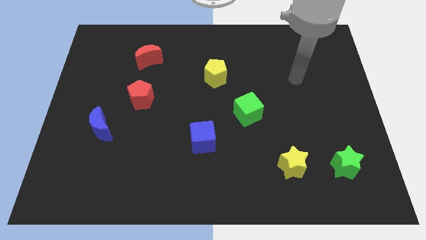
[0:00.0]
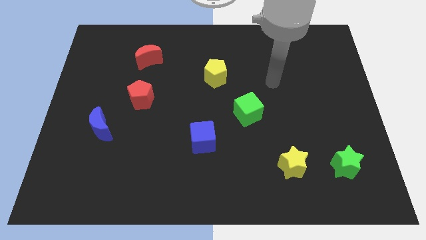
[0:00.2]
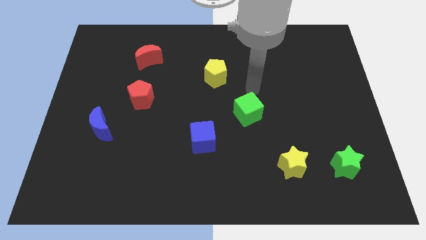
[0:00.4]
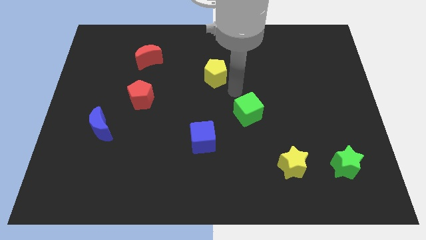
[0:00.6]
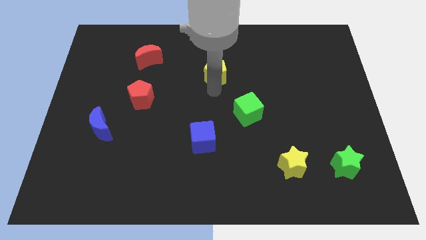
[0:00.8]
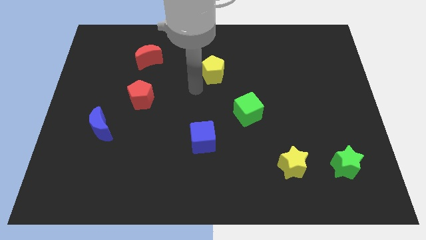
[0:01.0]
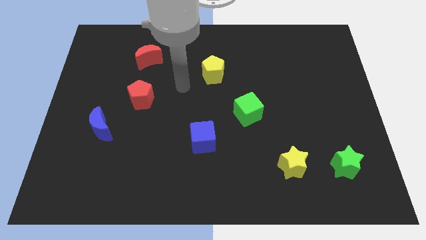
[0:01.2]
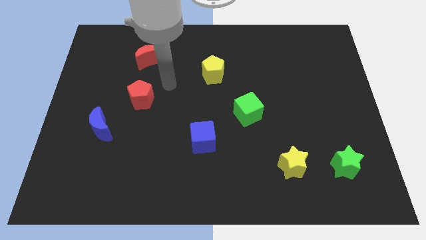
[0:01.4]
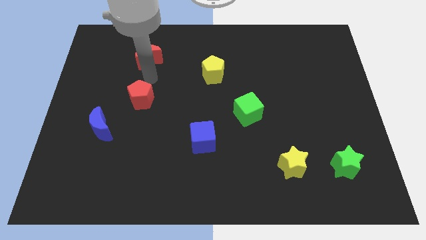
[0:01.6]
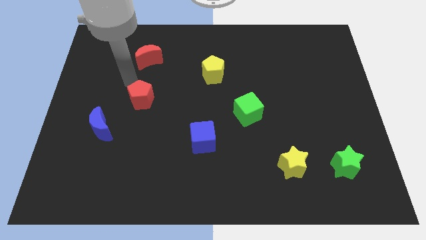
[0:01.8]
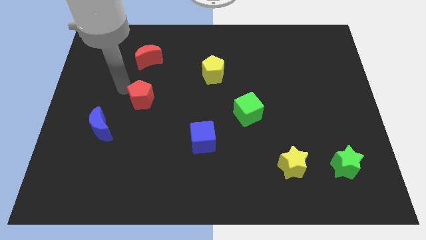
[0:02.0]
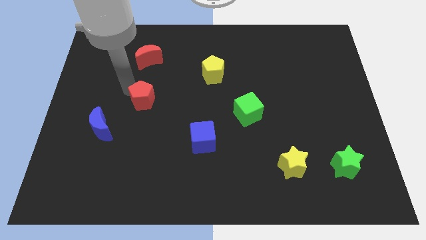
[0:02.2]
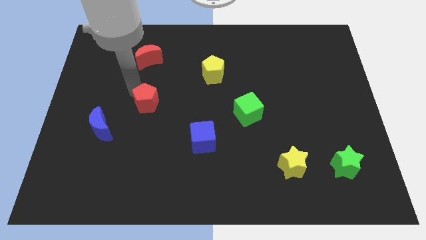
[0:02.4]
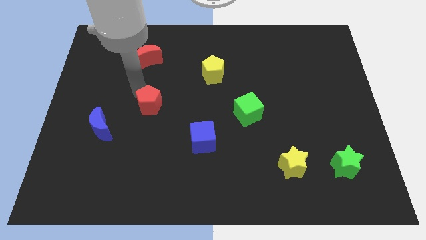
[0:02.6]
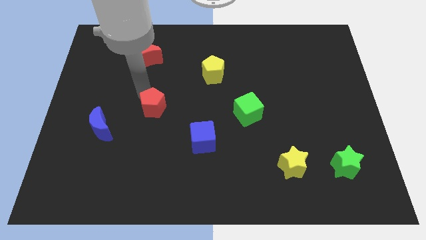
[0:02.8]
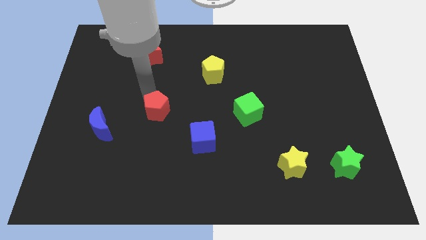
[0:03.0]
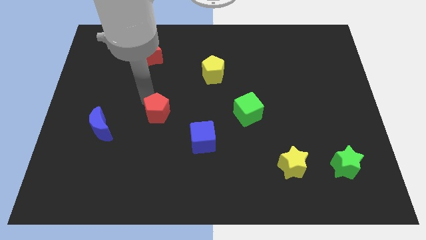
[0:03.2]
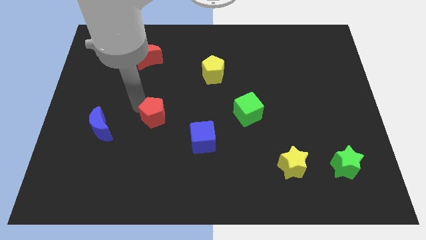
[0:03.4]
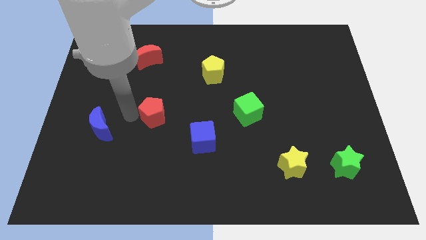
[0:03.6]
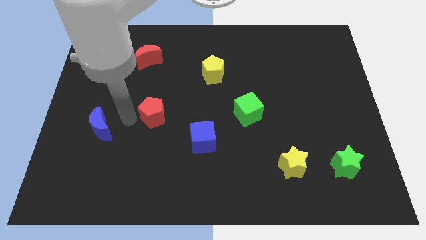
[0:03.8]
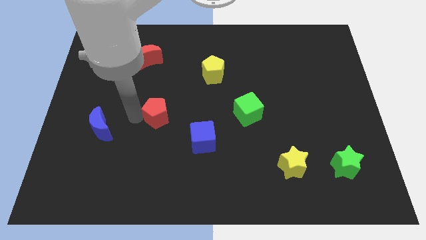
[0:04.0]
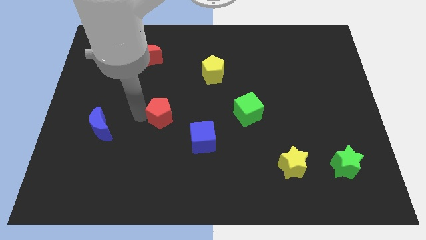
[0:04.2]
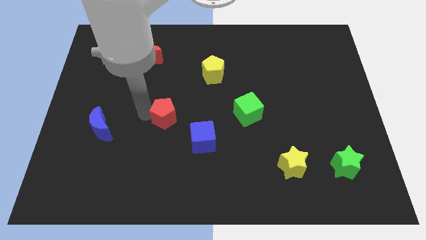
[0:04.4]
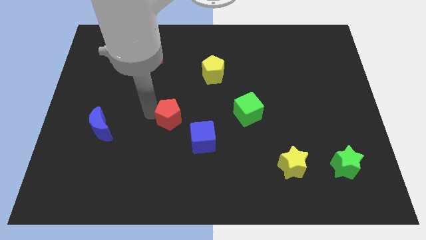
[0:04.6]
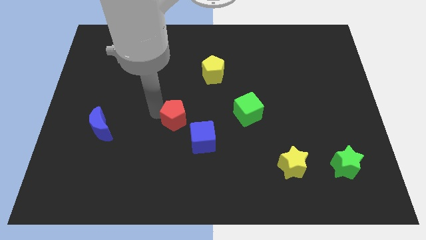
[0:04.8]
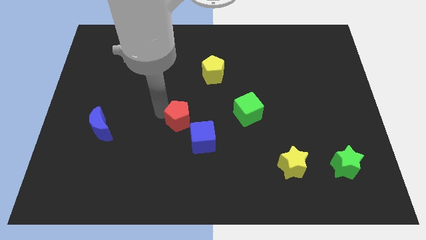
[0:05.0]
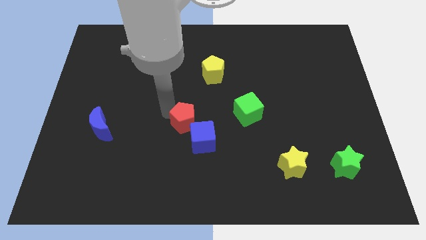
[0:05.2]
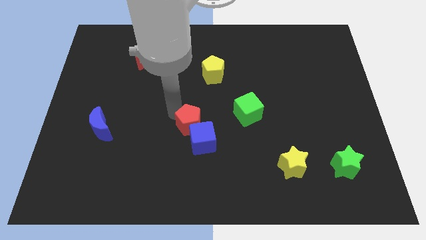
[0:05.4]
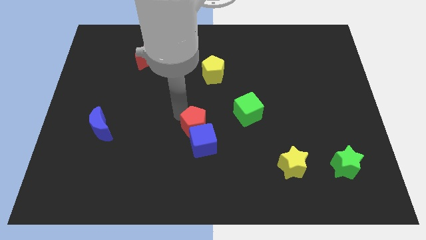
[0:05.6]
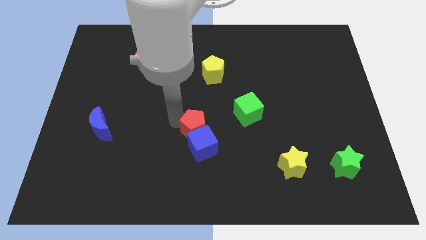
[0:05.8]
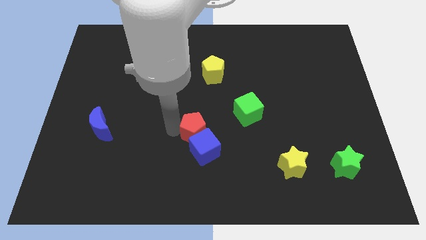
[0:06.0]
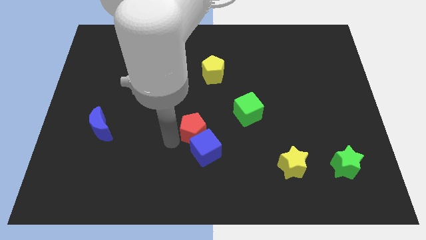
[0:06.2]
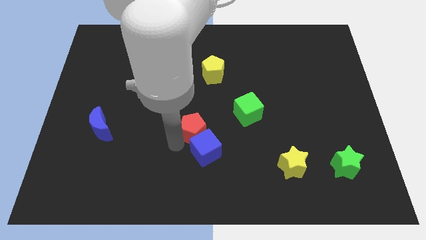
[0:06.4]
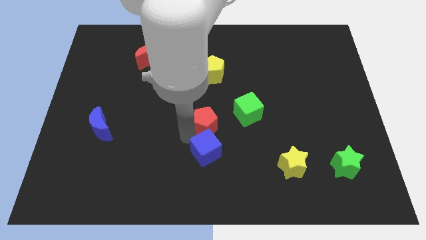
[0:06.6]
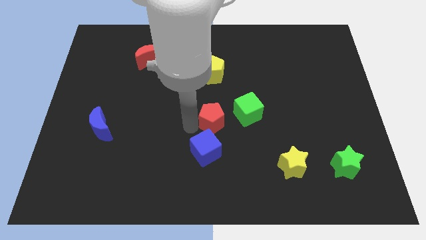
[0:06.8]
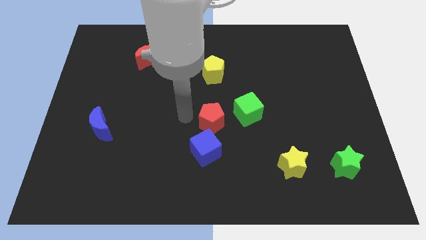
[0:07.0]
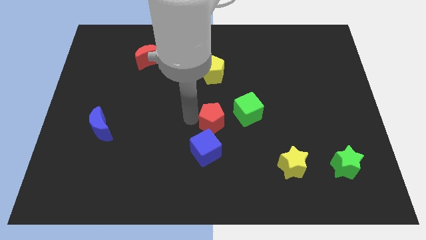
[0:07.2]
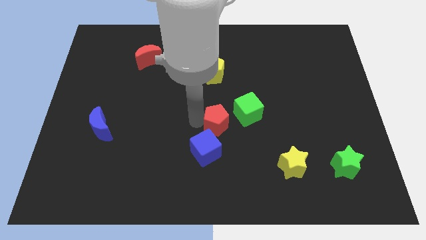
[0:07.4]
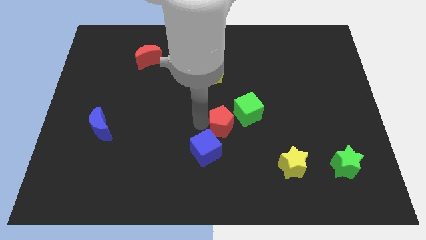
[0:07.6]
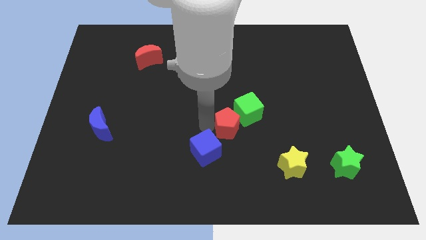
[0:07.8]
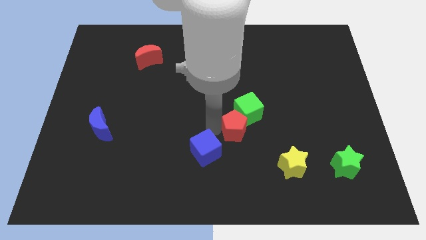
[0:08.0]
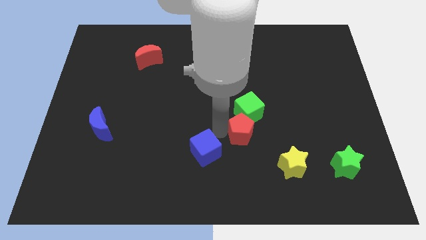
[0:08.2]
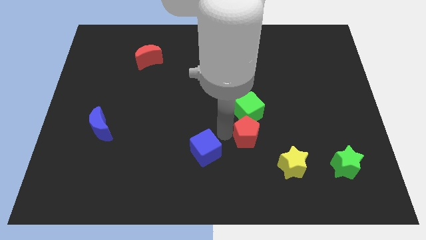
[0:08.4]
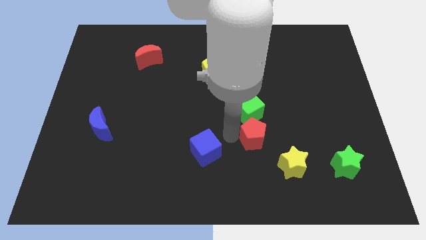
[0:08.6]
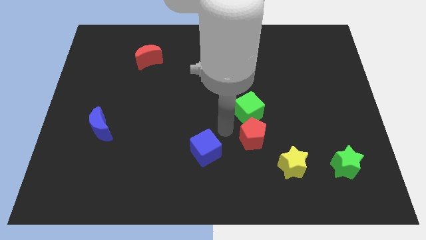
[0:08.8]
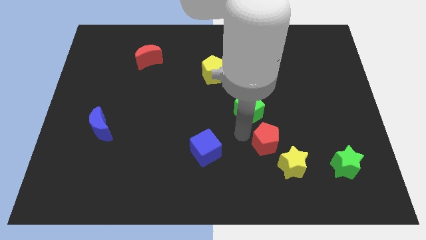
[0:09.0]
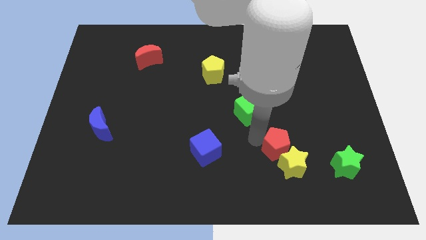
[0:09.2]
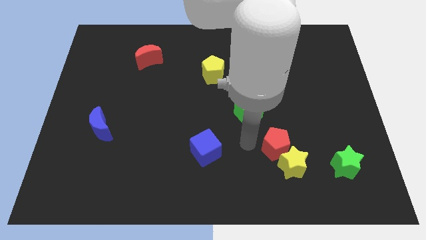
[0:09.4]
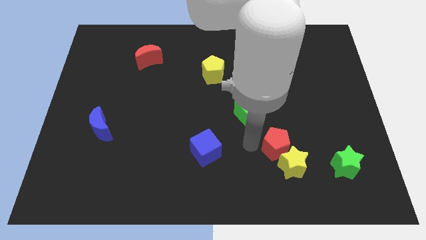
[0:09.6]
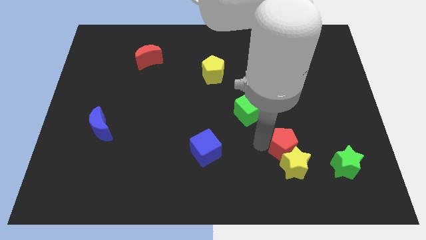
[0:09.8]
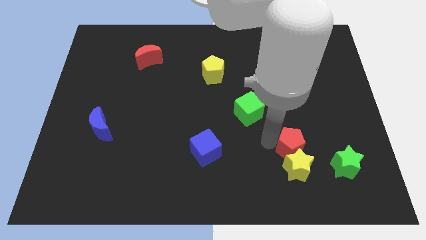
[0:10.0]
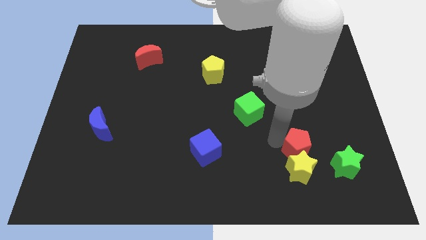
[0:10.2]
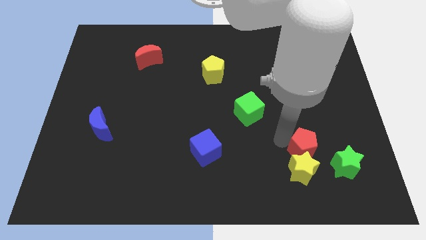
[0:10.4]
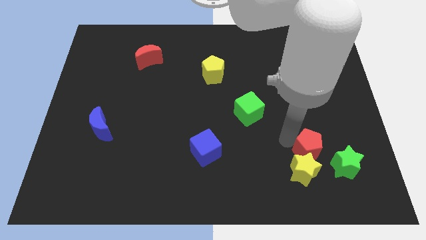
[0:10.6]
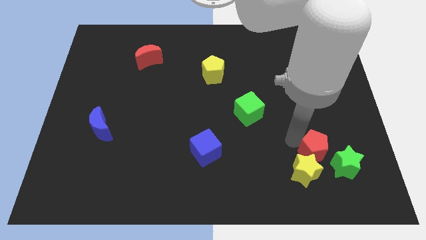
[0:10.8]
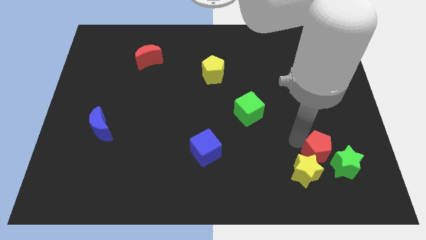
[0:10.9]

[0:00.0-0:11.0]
slide the red pentagon towards the green star

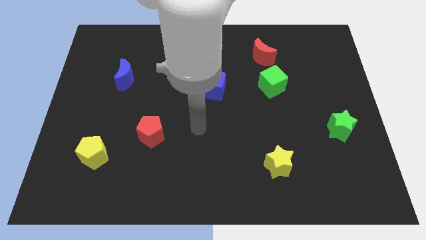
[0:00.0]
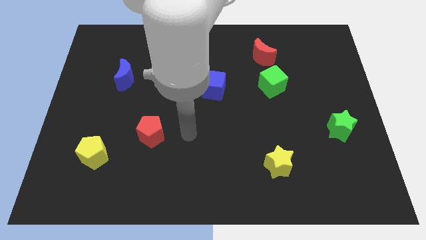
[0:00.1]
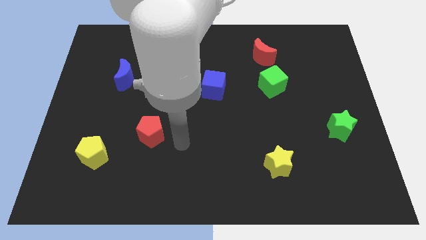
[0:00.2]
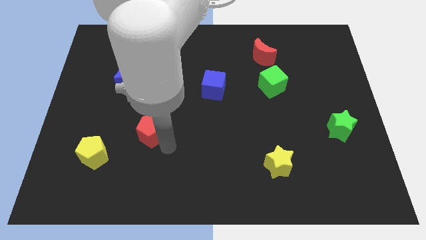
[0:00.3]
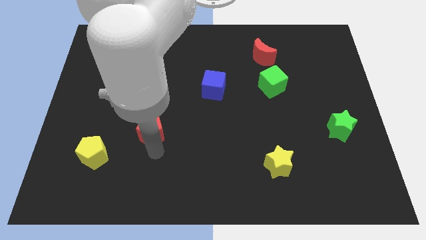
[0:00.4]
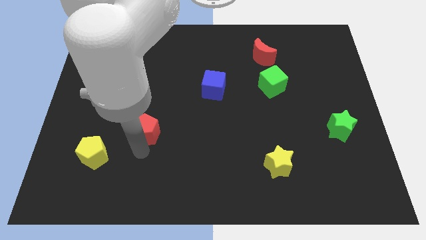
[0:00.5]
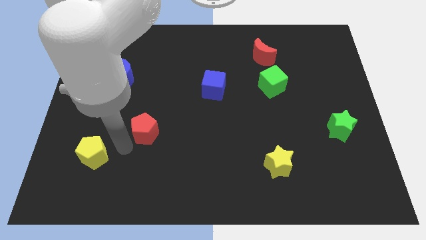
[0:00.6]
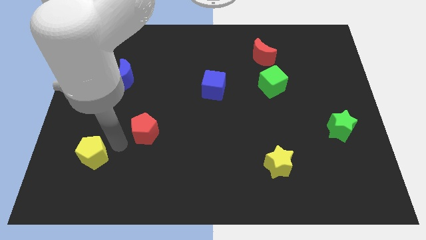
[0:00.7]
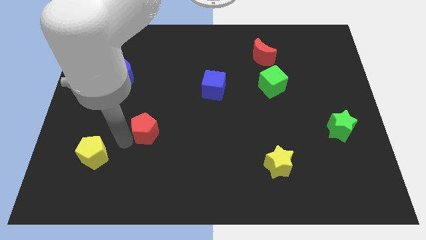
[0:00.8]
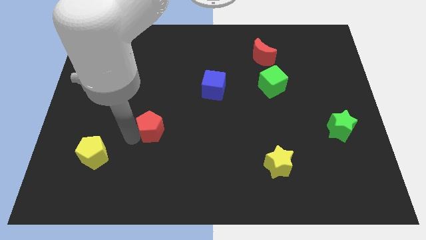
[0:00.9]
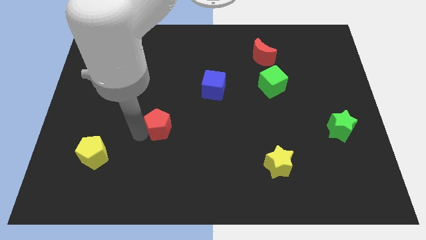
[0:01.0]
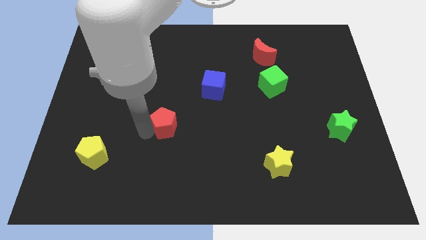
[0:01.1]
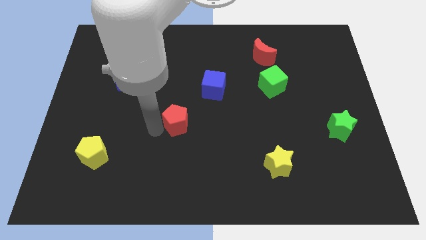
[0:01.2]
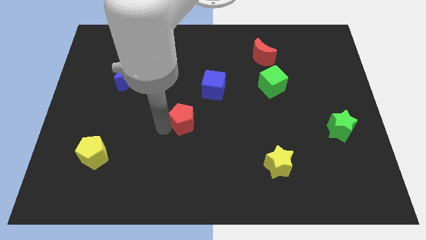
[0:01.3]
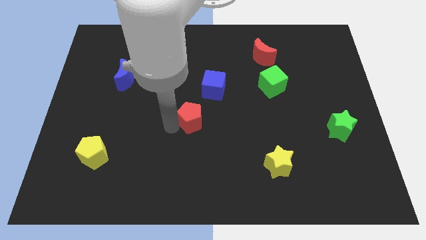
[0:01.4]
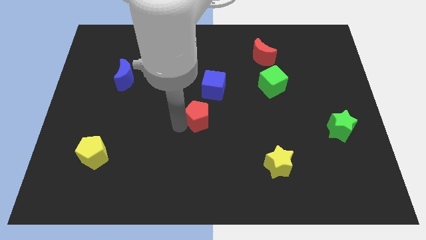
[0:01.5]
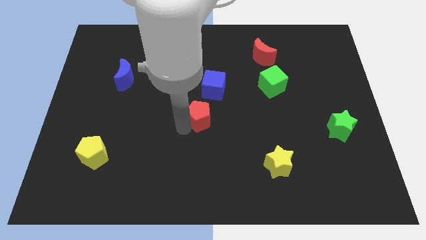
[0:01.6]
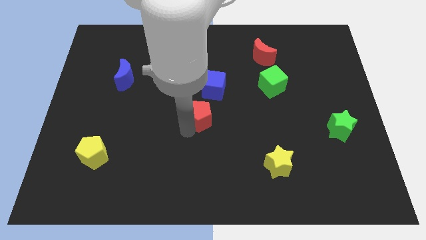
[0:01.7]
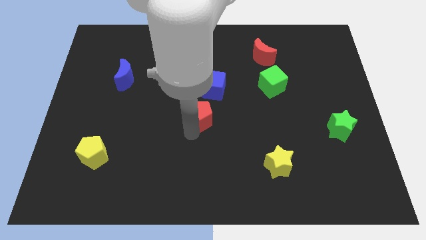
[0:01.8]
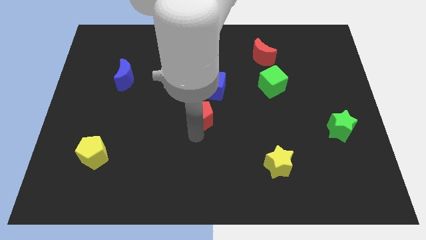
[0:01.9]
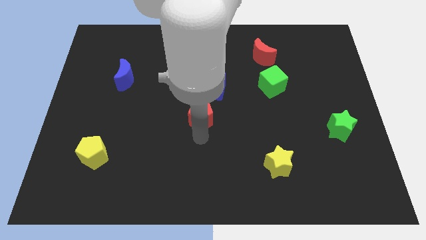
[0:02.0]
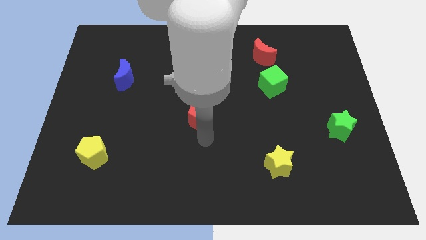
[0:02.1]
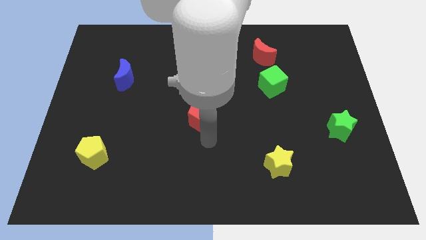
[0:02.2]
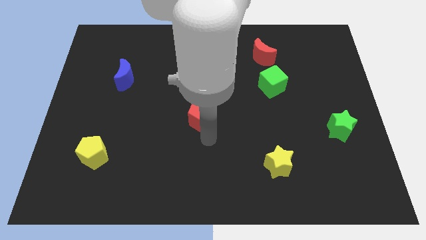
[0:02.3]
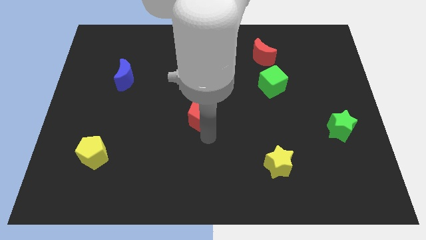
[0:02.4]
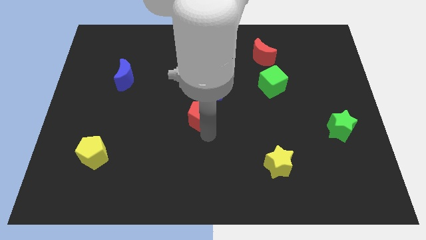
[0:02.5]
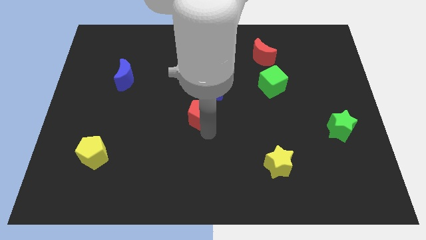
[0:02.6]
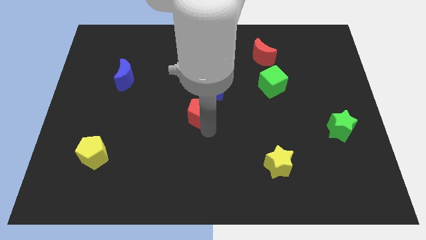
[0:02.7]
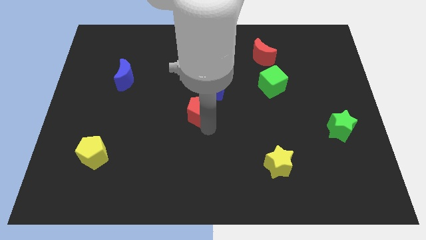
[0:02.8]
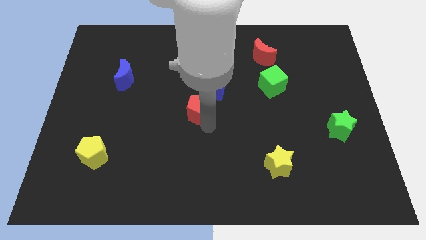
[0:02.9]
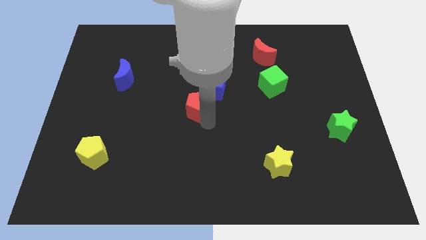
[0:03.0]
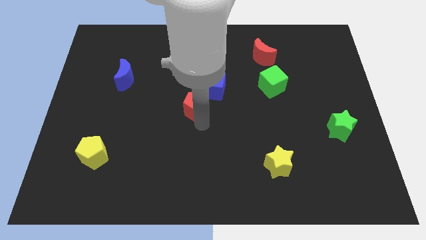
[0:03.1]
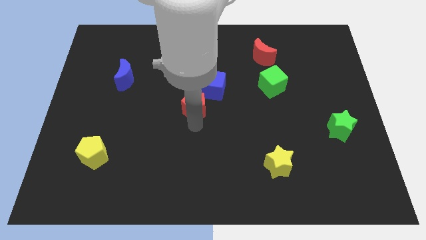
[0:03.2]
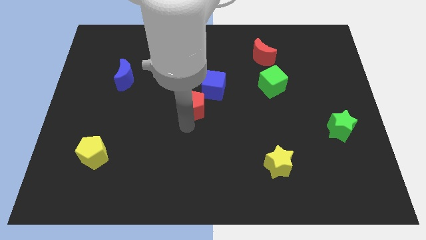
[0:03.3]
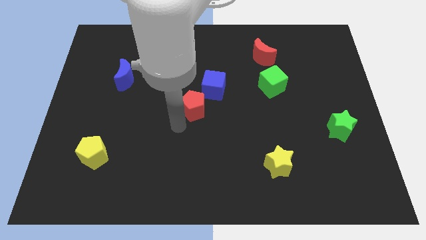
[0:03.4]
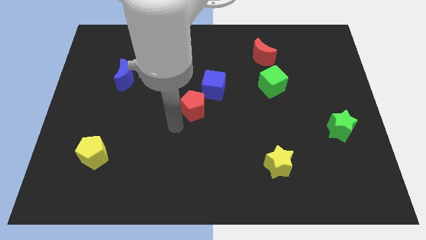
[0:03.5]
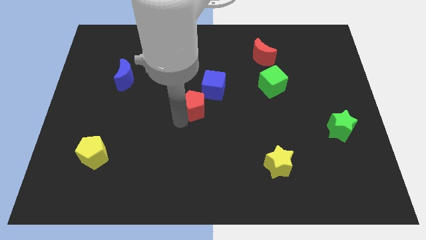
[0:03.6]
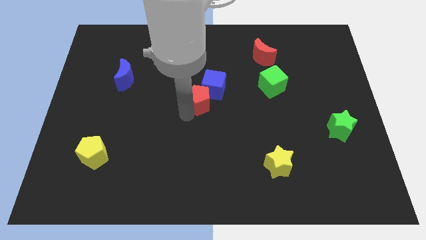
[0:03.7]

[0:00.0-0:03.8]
slide the red pentagon next to the blue cube
